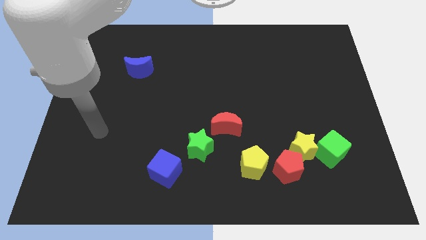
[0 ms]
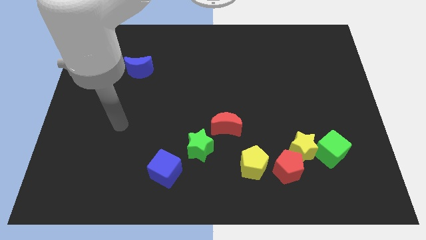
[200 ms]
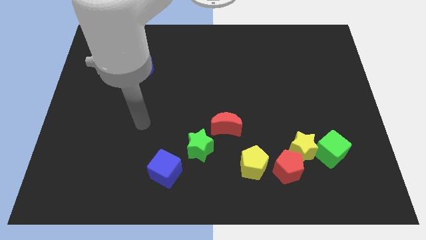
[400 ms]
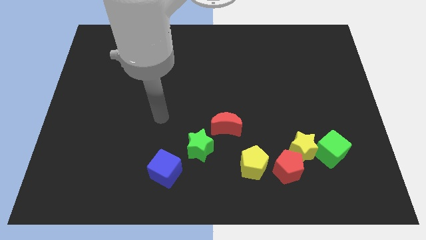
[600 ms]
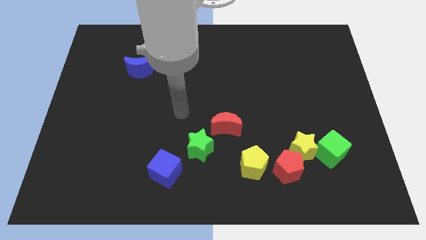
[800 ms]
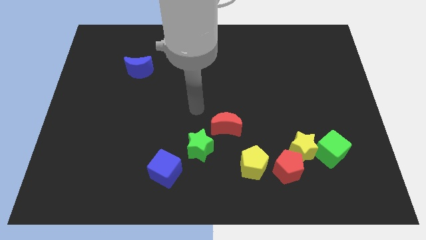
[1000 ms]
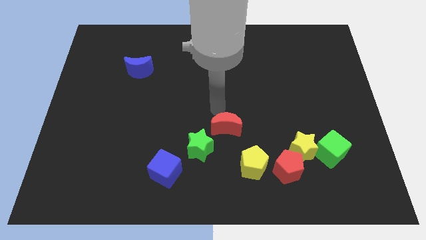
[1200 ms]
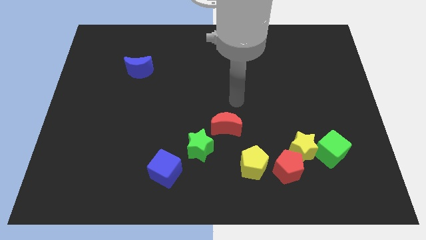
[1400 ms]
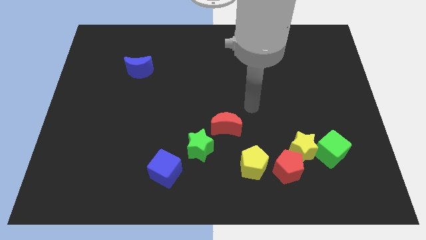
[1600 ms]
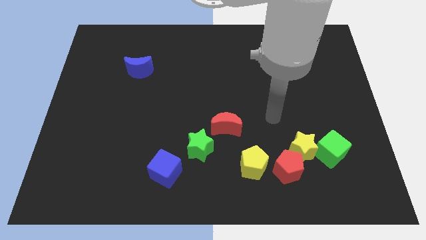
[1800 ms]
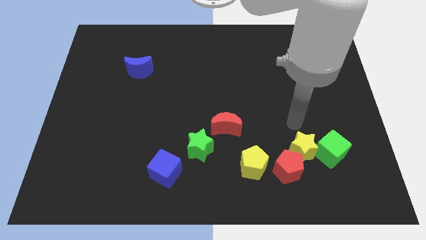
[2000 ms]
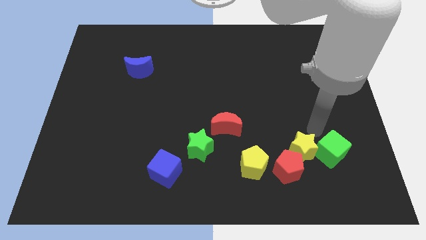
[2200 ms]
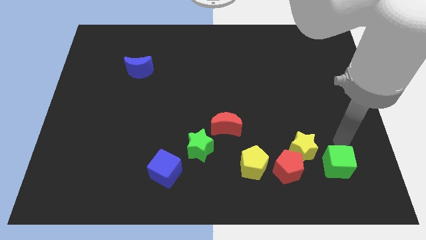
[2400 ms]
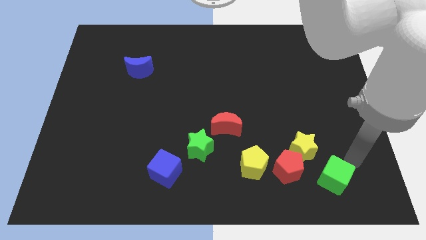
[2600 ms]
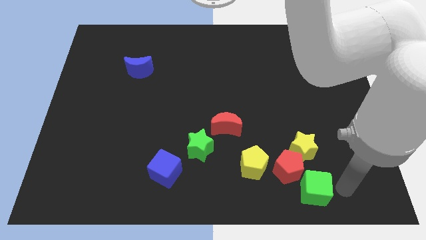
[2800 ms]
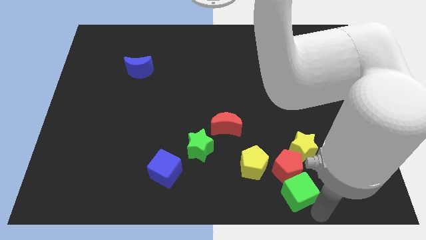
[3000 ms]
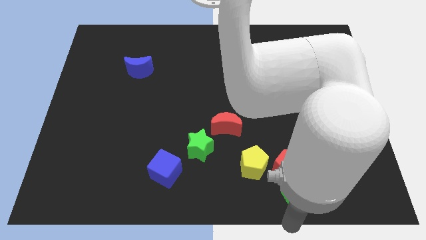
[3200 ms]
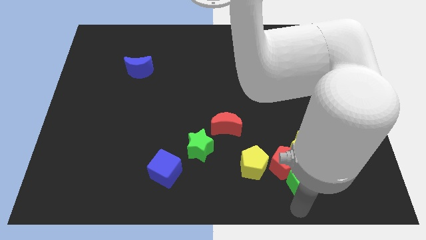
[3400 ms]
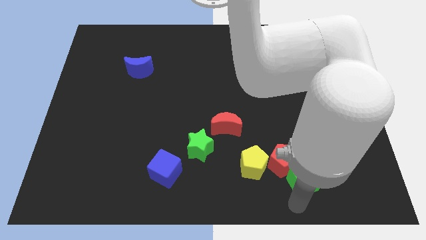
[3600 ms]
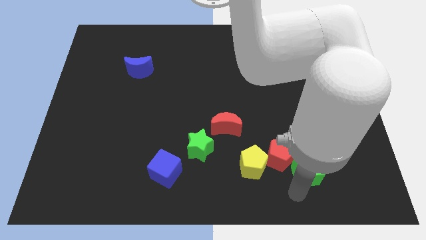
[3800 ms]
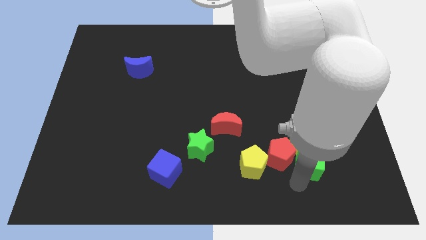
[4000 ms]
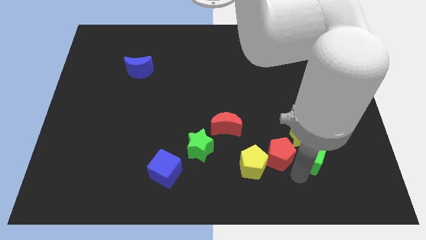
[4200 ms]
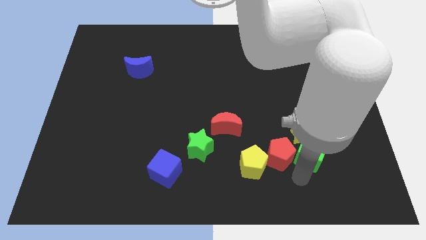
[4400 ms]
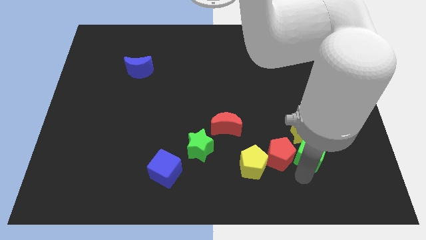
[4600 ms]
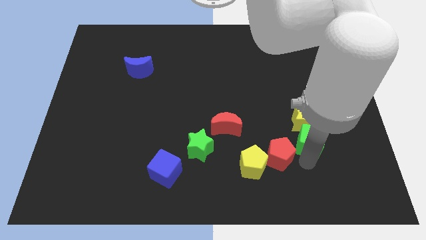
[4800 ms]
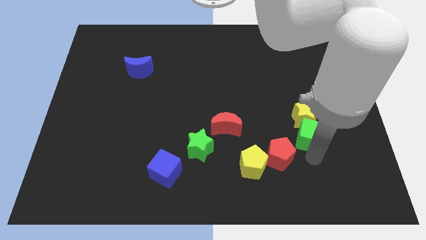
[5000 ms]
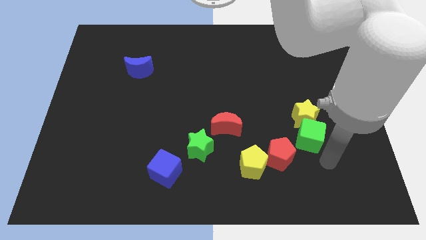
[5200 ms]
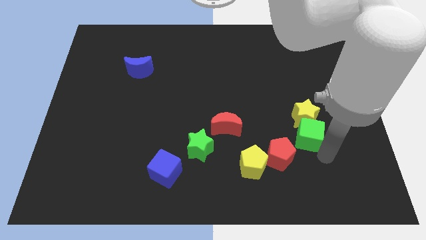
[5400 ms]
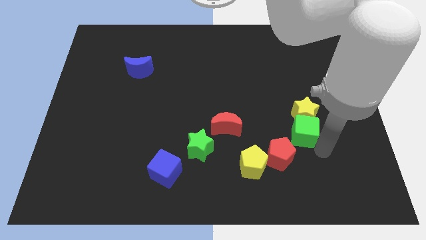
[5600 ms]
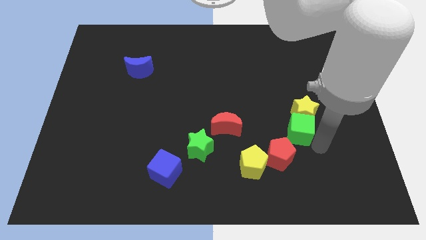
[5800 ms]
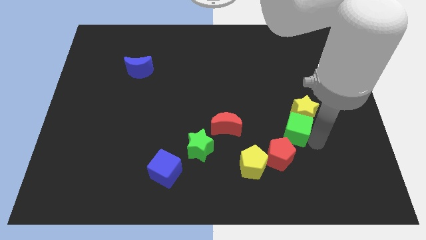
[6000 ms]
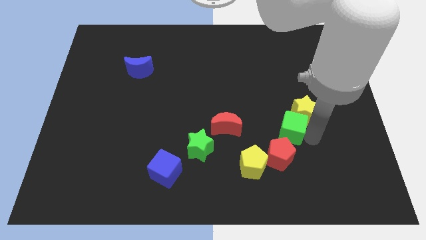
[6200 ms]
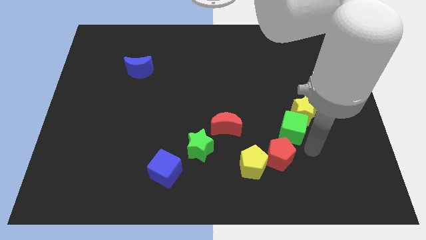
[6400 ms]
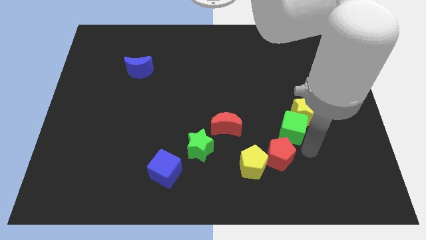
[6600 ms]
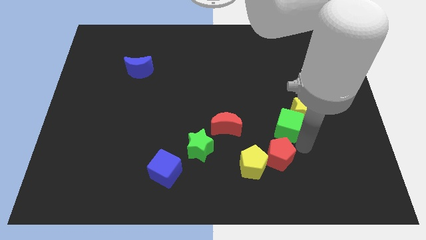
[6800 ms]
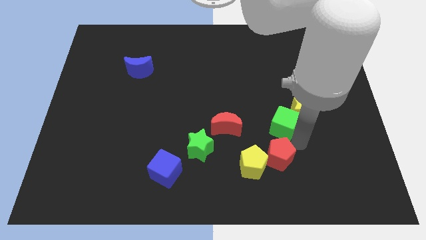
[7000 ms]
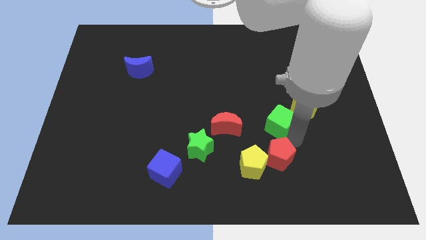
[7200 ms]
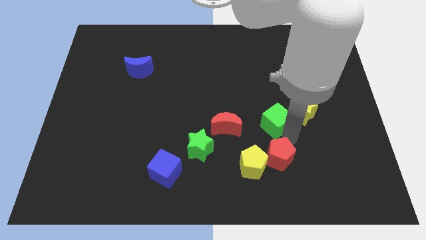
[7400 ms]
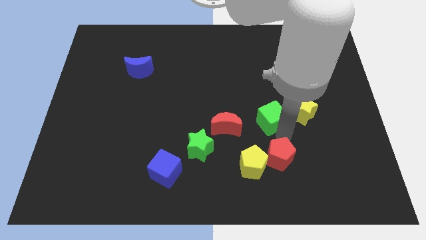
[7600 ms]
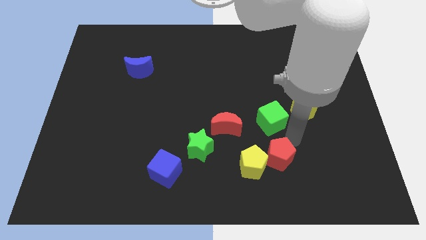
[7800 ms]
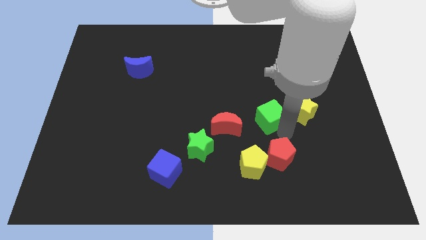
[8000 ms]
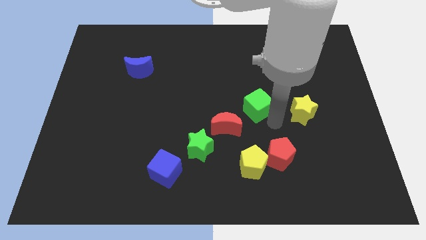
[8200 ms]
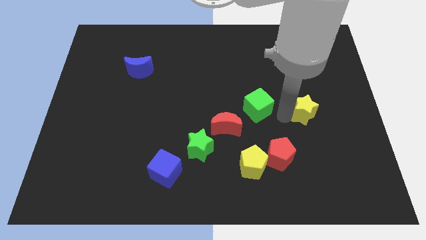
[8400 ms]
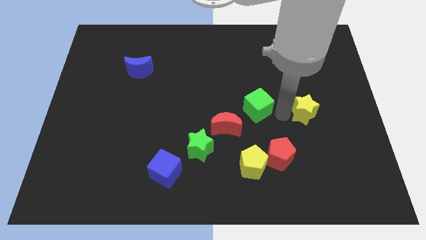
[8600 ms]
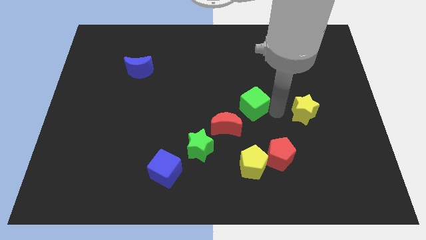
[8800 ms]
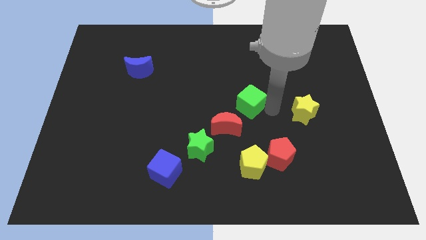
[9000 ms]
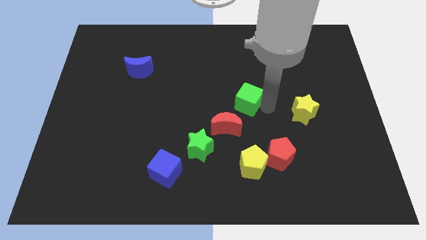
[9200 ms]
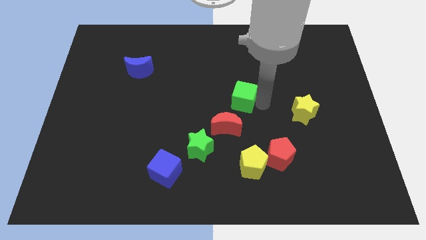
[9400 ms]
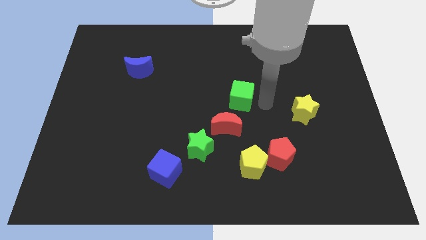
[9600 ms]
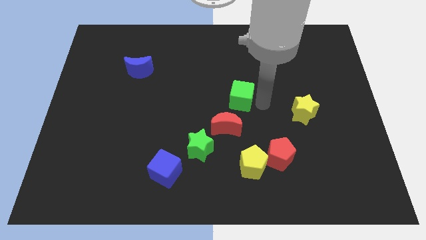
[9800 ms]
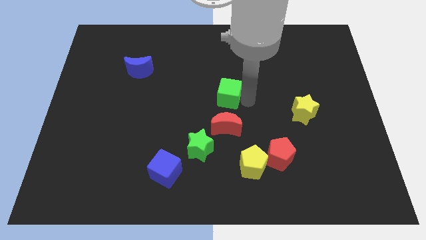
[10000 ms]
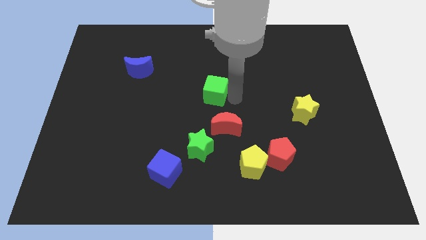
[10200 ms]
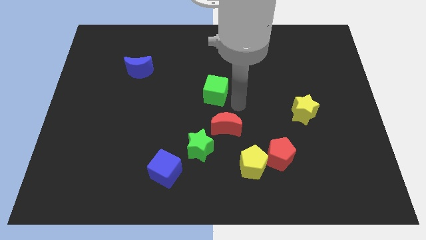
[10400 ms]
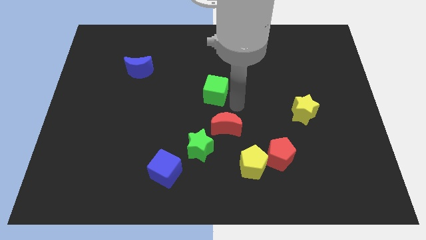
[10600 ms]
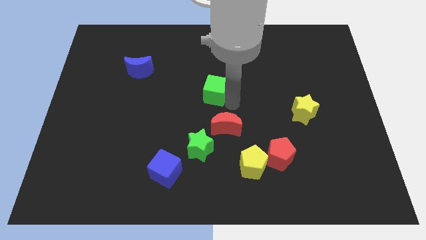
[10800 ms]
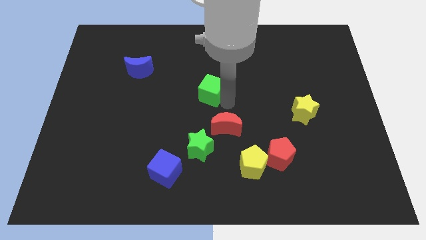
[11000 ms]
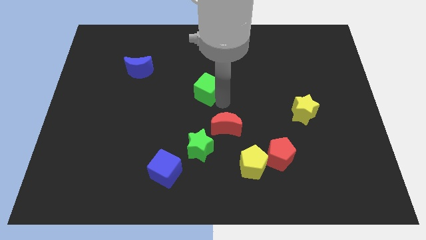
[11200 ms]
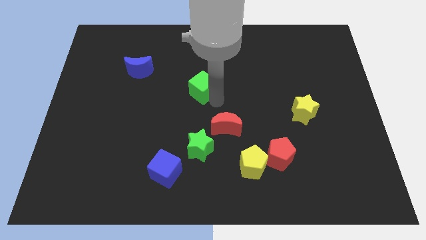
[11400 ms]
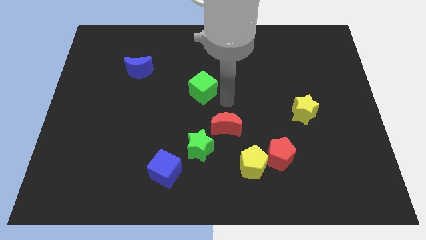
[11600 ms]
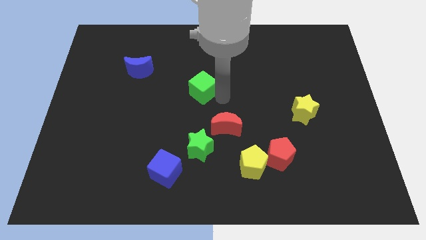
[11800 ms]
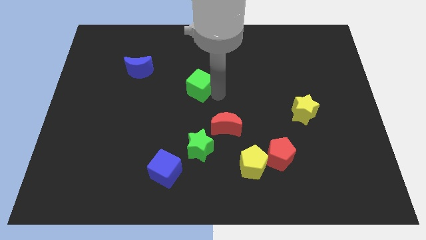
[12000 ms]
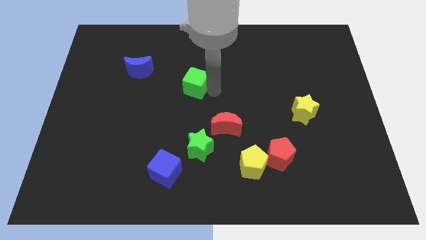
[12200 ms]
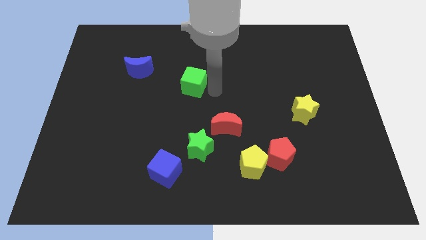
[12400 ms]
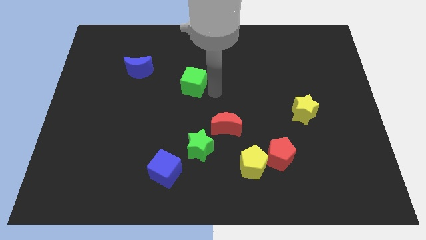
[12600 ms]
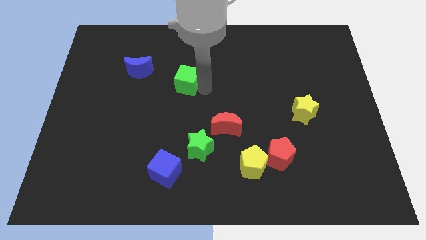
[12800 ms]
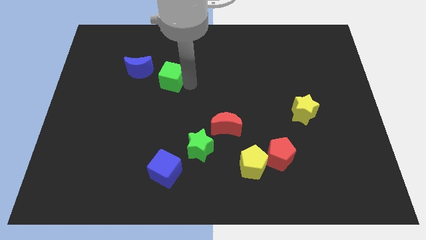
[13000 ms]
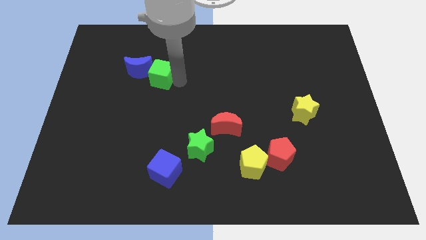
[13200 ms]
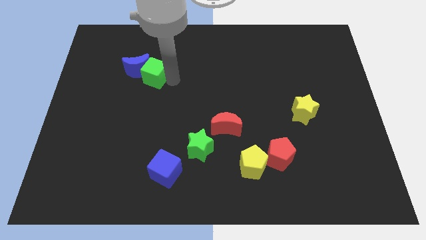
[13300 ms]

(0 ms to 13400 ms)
push the green cube towards the blue moon

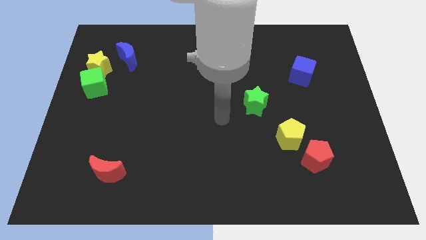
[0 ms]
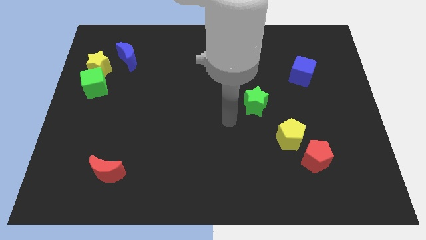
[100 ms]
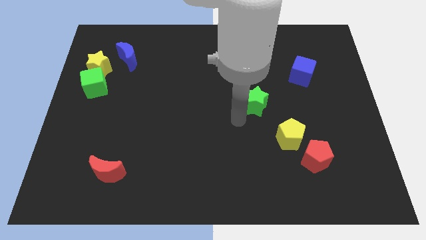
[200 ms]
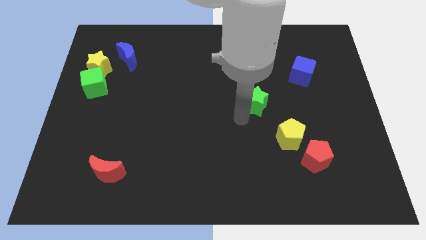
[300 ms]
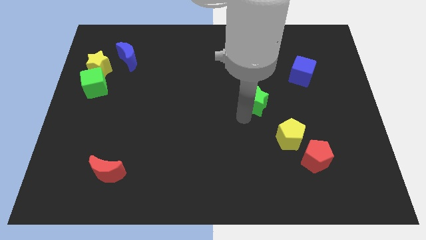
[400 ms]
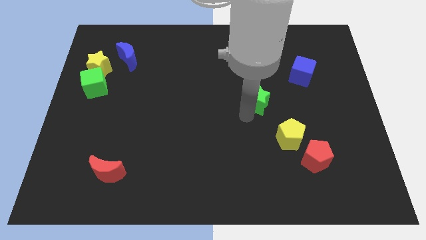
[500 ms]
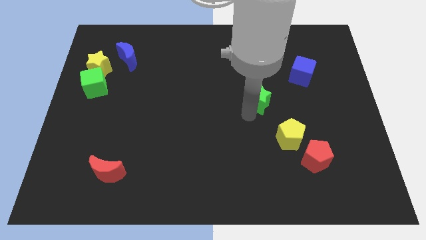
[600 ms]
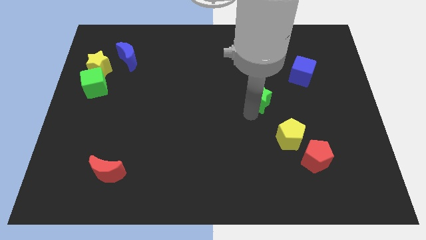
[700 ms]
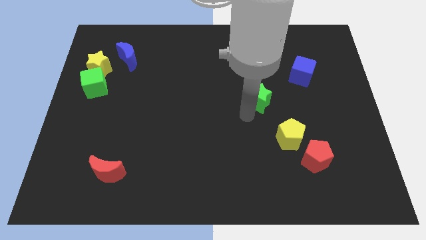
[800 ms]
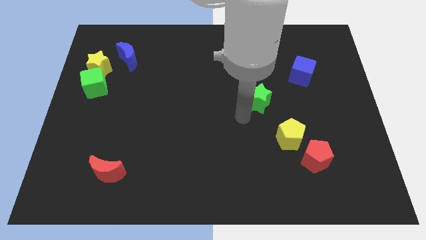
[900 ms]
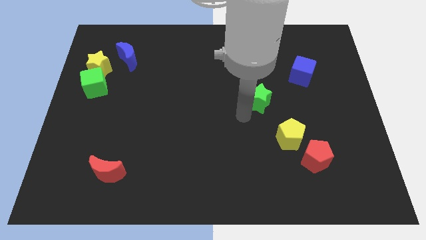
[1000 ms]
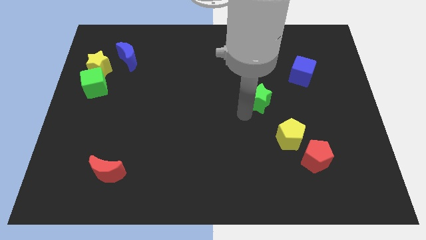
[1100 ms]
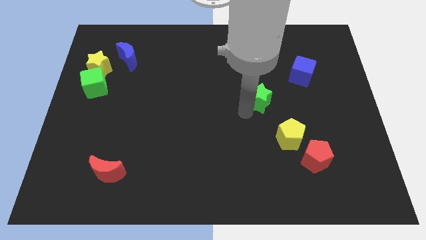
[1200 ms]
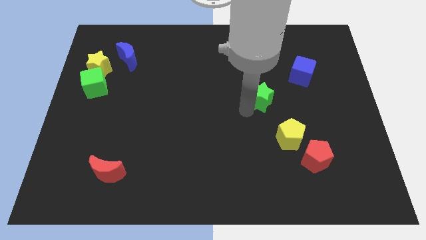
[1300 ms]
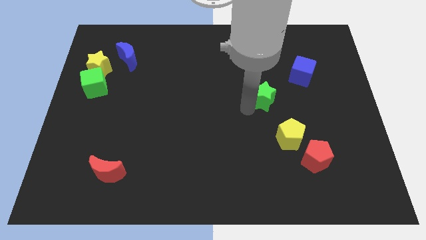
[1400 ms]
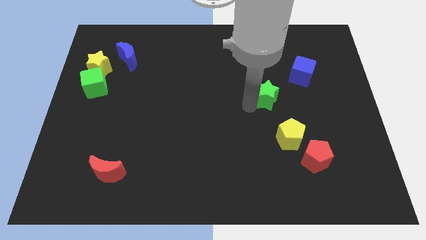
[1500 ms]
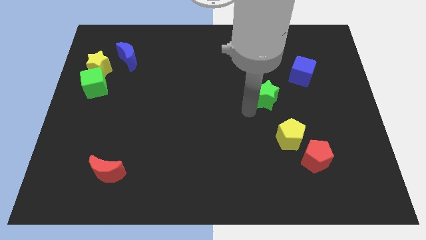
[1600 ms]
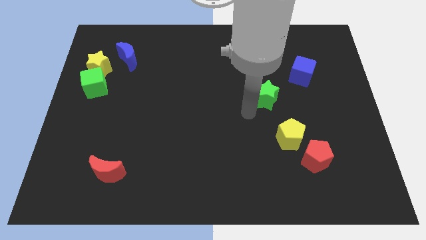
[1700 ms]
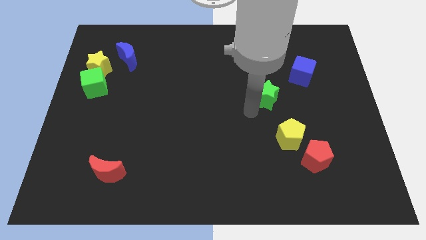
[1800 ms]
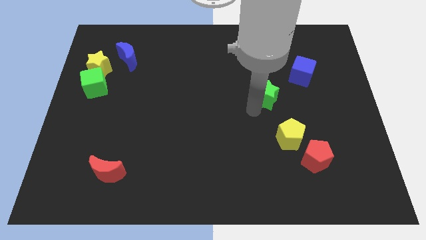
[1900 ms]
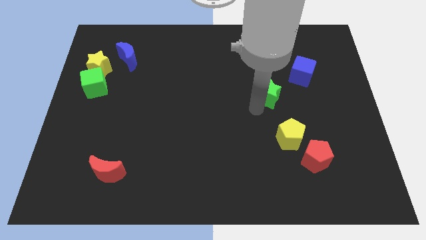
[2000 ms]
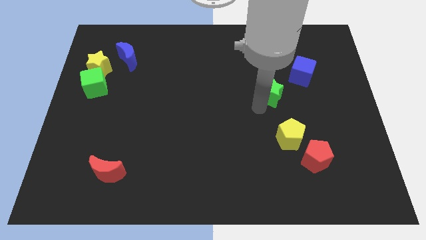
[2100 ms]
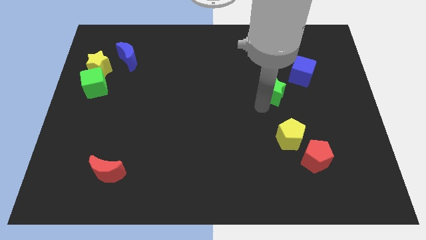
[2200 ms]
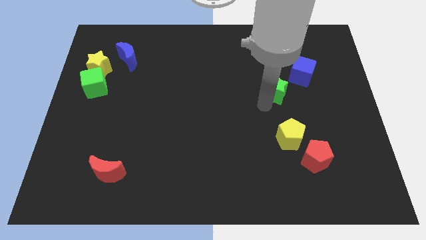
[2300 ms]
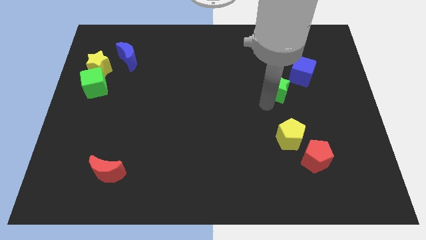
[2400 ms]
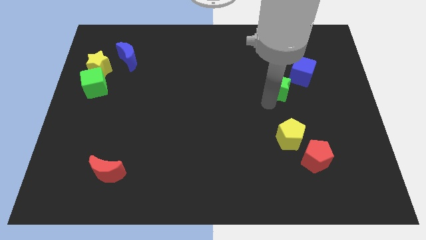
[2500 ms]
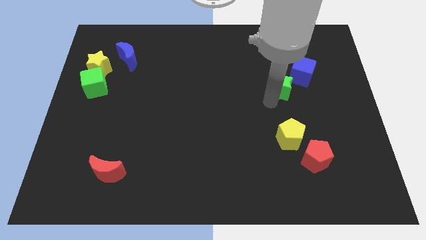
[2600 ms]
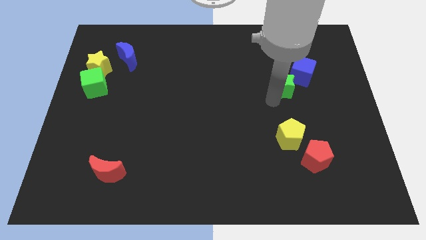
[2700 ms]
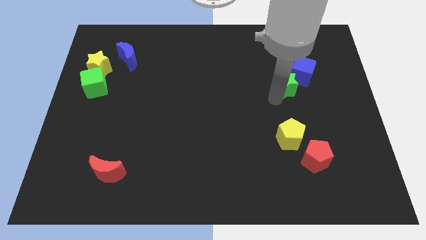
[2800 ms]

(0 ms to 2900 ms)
move the green star to the blue cube
